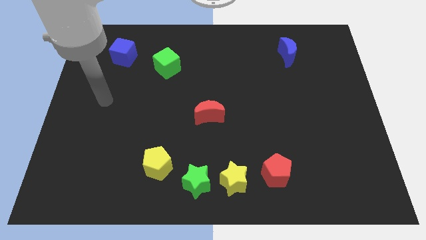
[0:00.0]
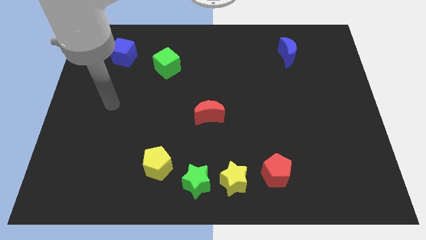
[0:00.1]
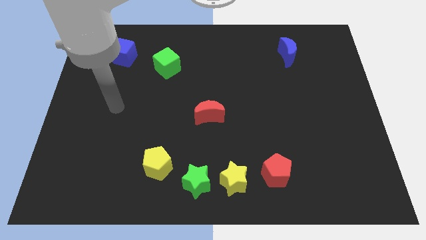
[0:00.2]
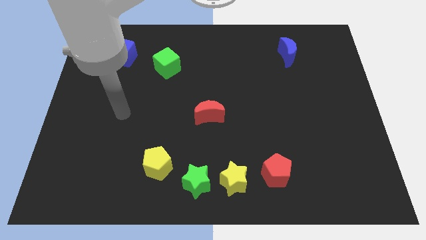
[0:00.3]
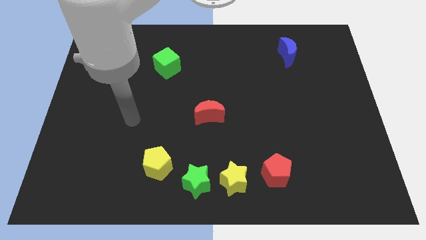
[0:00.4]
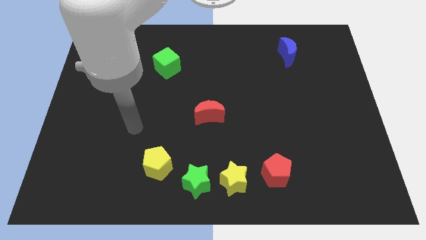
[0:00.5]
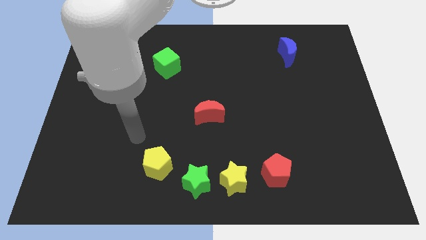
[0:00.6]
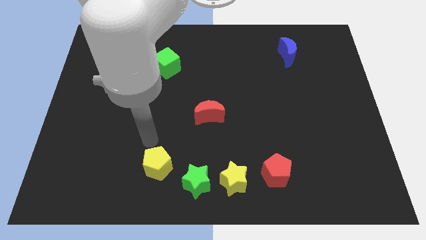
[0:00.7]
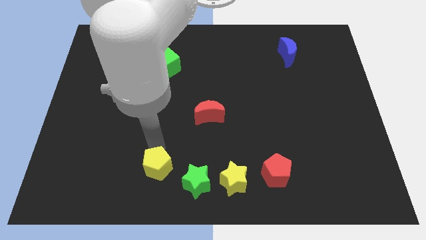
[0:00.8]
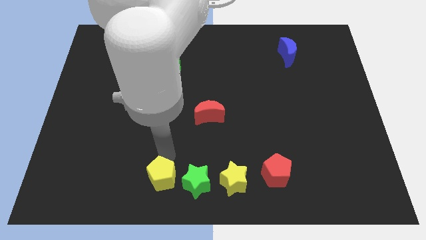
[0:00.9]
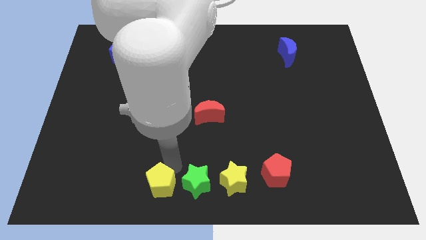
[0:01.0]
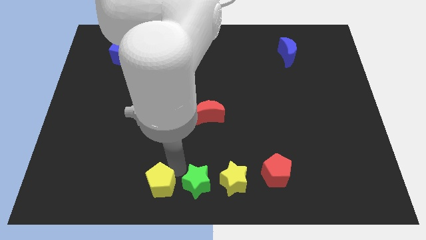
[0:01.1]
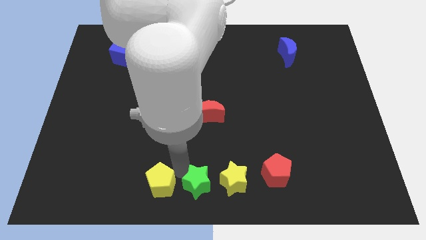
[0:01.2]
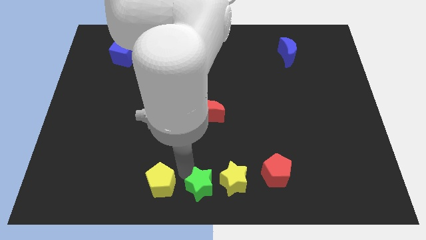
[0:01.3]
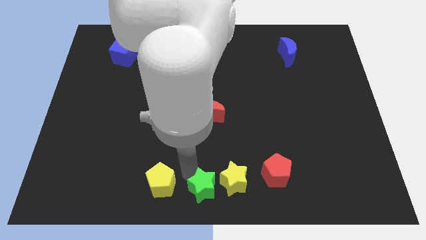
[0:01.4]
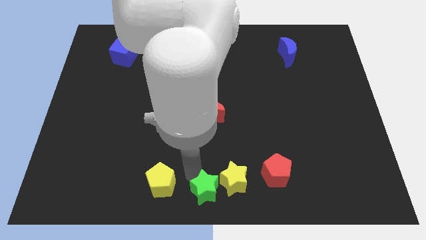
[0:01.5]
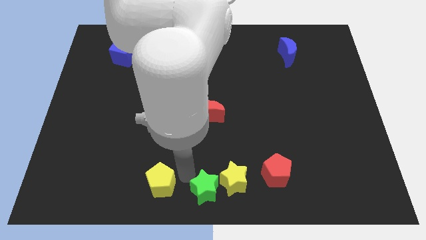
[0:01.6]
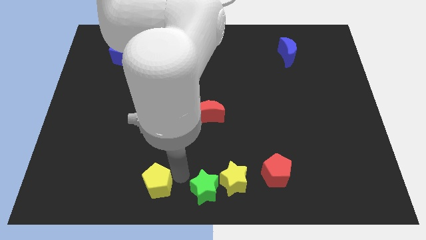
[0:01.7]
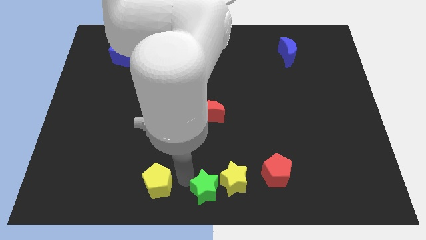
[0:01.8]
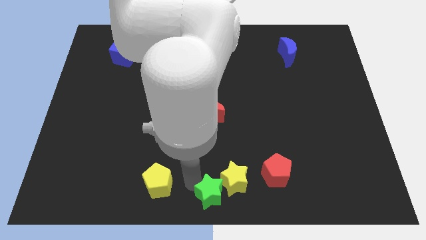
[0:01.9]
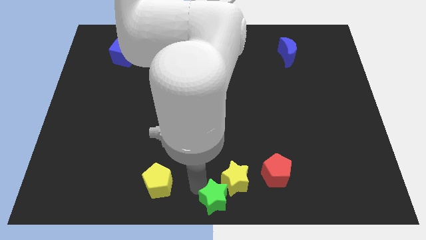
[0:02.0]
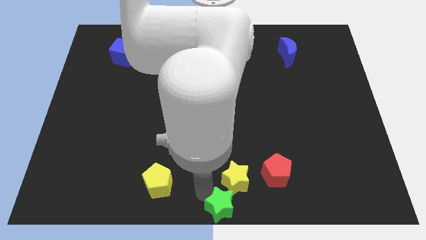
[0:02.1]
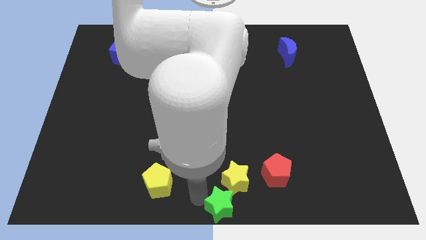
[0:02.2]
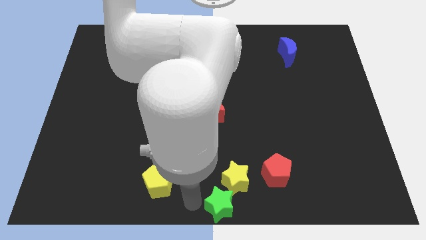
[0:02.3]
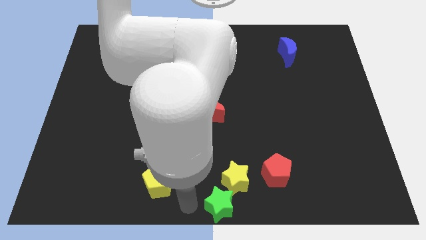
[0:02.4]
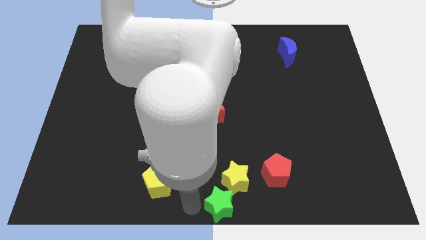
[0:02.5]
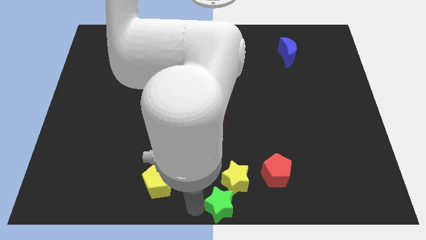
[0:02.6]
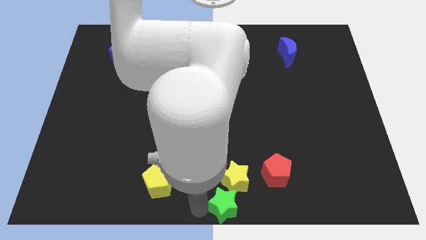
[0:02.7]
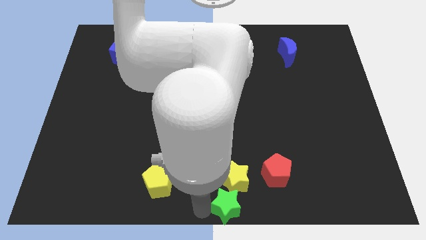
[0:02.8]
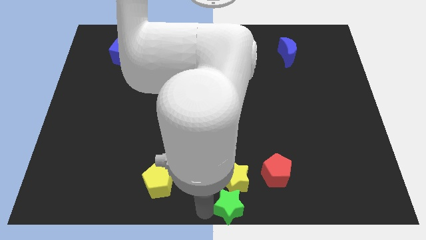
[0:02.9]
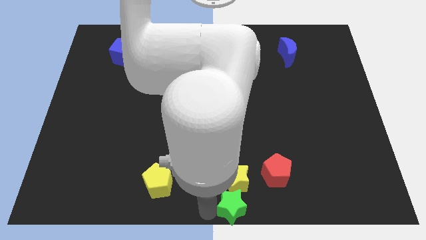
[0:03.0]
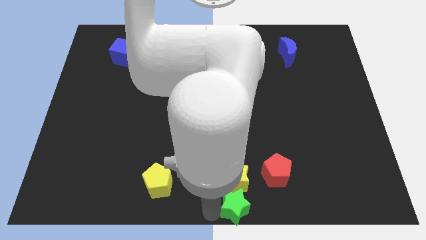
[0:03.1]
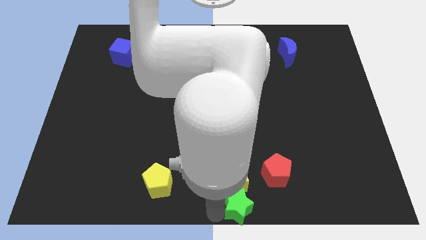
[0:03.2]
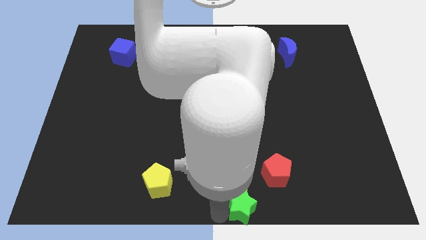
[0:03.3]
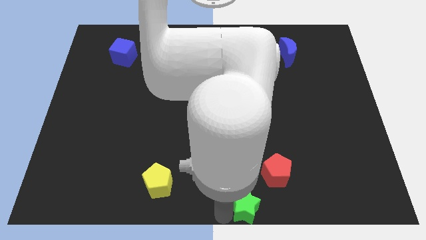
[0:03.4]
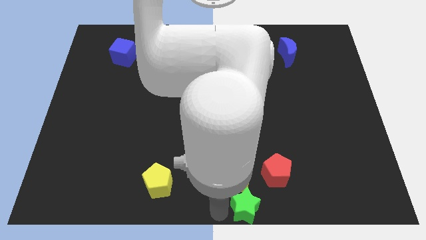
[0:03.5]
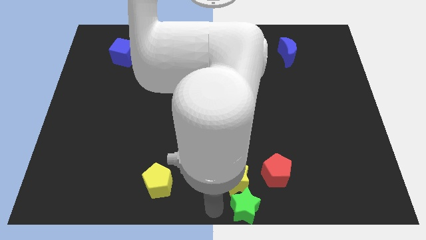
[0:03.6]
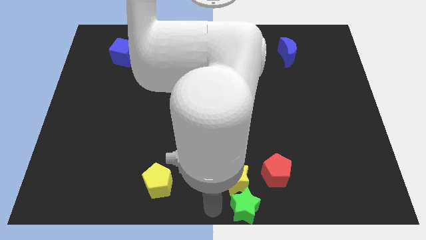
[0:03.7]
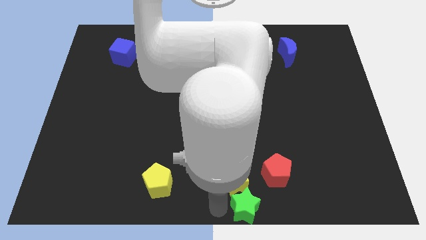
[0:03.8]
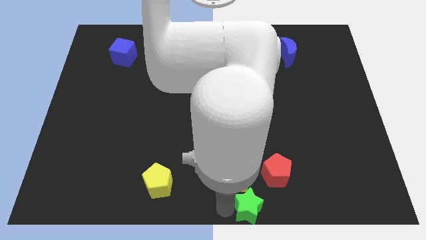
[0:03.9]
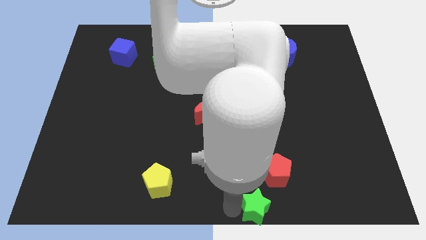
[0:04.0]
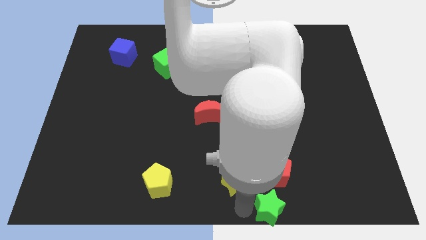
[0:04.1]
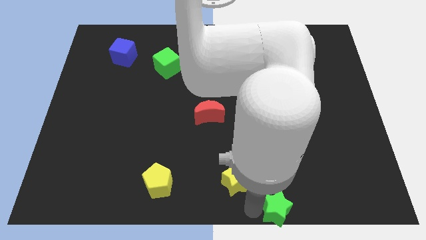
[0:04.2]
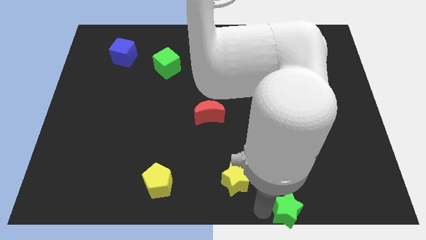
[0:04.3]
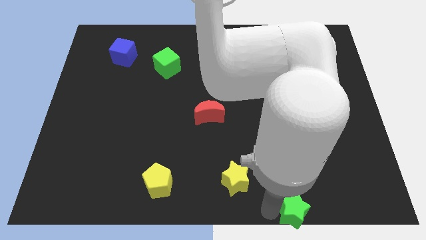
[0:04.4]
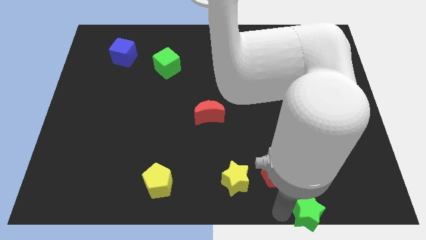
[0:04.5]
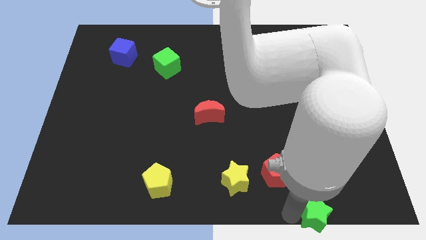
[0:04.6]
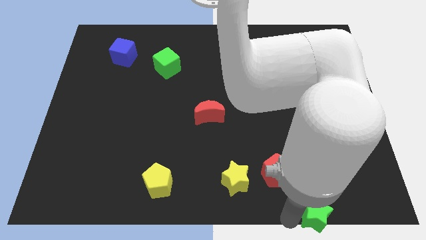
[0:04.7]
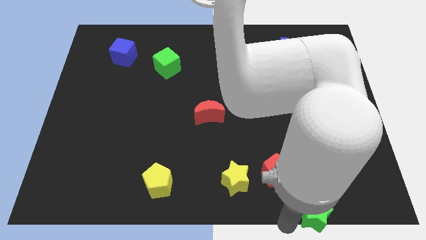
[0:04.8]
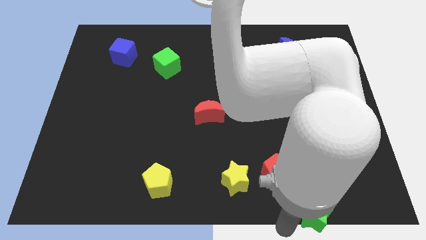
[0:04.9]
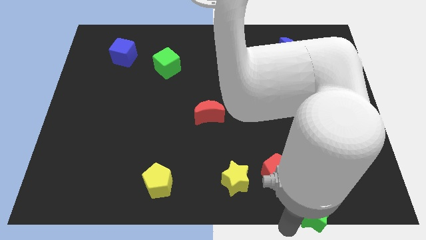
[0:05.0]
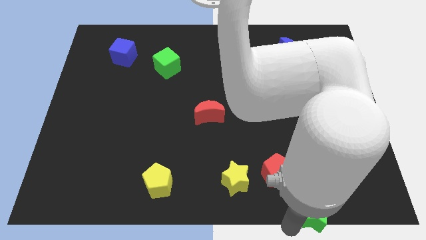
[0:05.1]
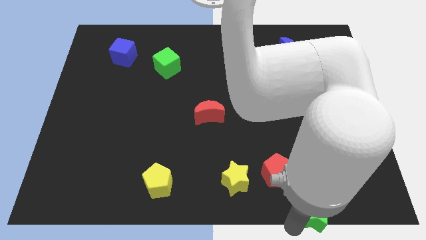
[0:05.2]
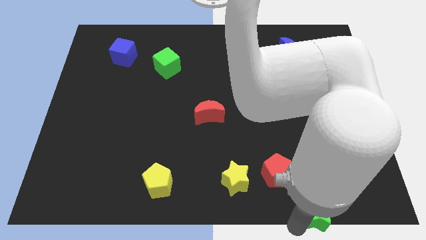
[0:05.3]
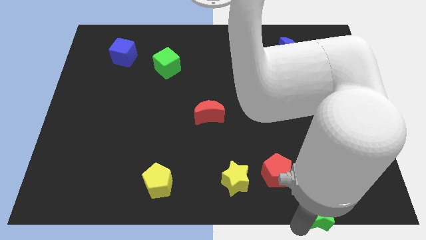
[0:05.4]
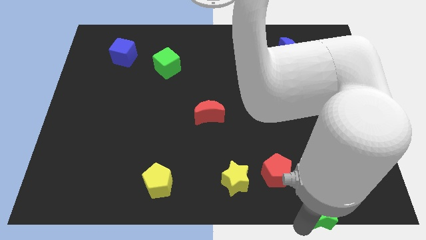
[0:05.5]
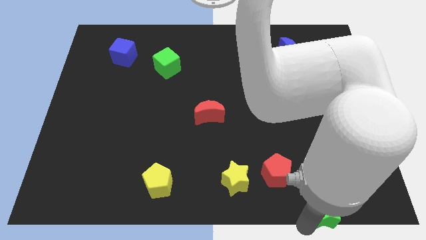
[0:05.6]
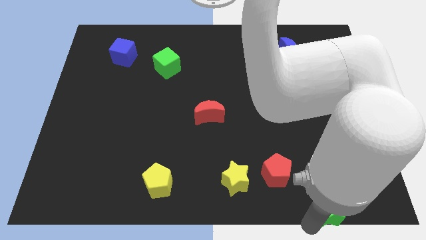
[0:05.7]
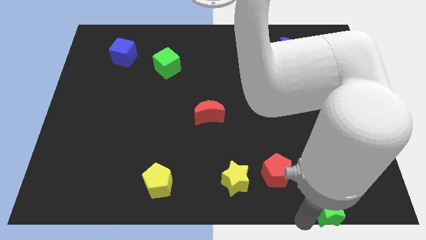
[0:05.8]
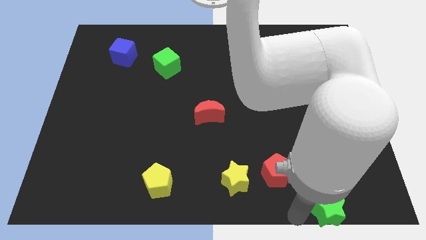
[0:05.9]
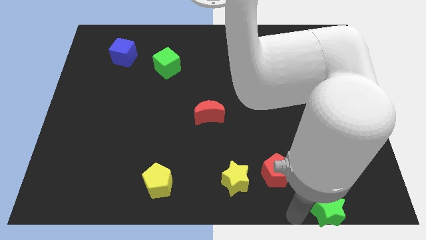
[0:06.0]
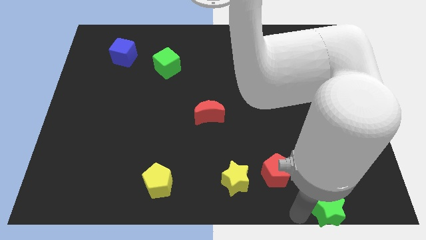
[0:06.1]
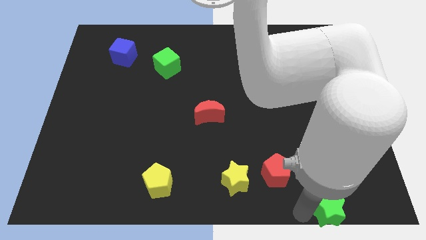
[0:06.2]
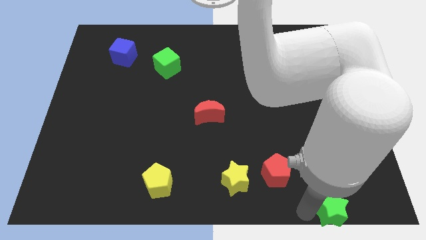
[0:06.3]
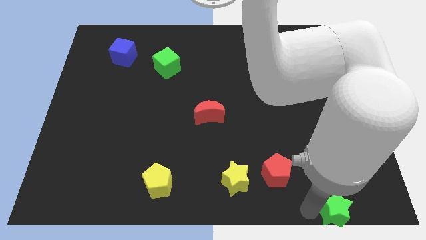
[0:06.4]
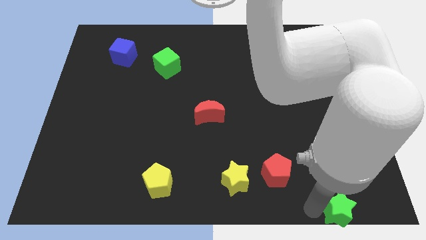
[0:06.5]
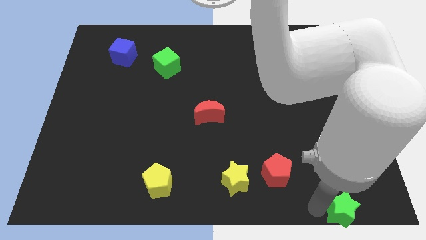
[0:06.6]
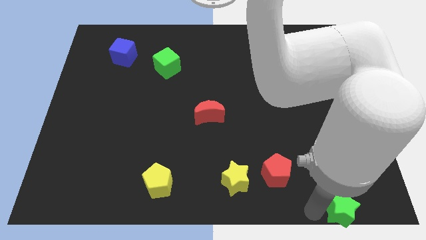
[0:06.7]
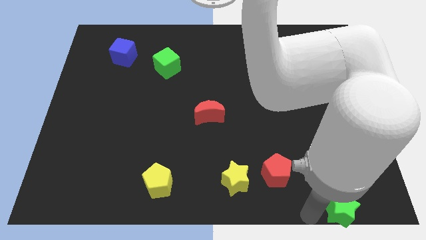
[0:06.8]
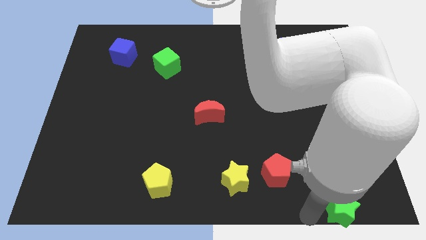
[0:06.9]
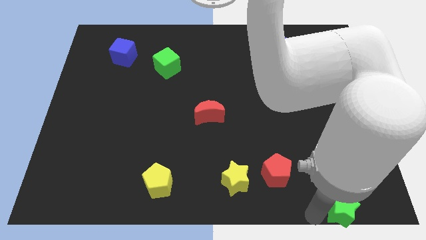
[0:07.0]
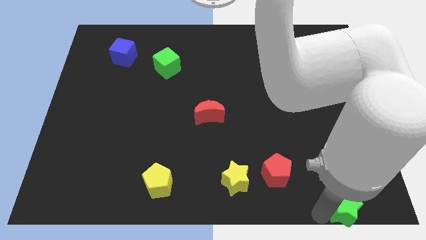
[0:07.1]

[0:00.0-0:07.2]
put the green star to the bottom right corner
